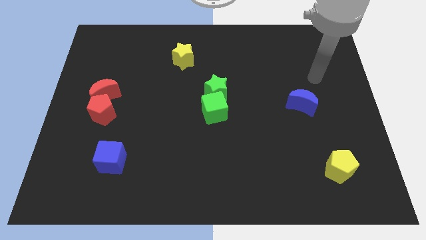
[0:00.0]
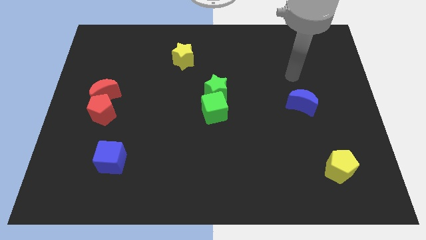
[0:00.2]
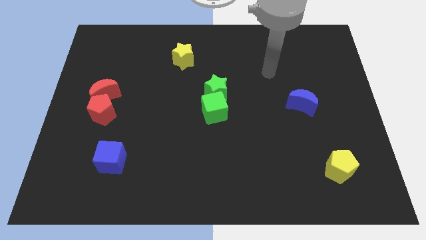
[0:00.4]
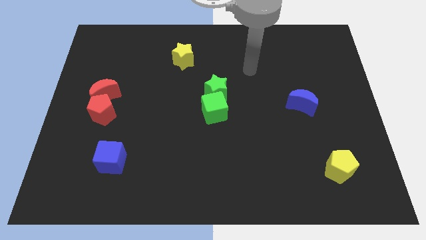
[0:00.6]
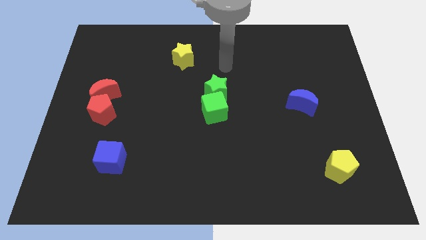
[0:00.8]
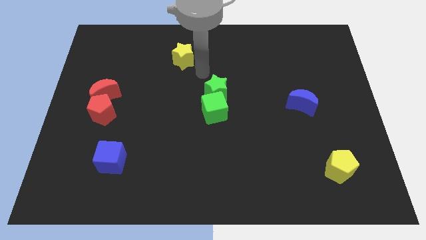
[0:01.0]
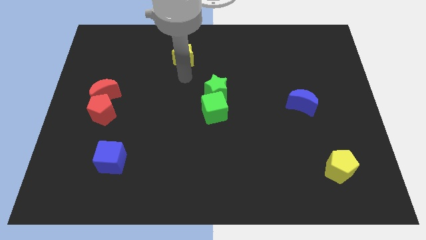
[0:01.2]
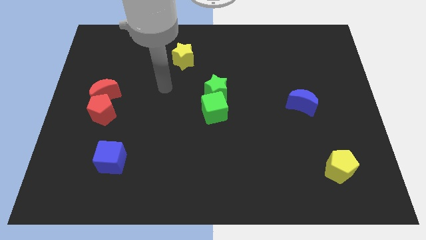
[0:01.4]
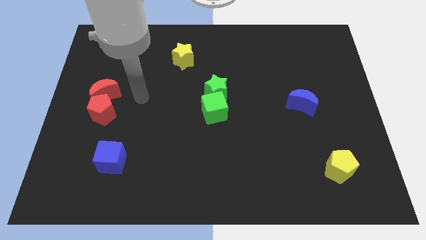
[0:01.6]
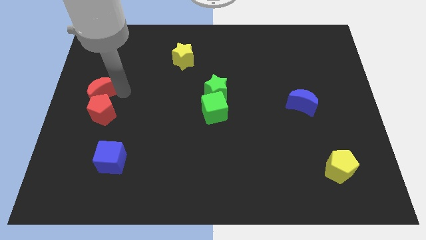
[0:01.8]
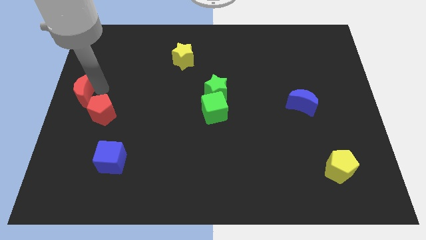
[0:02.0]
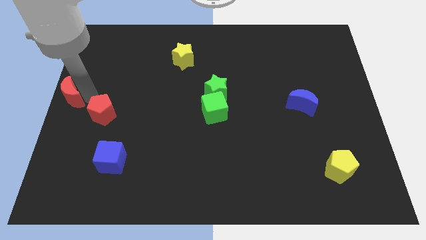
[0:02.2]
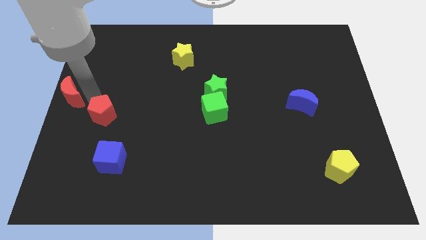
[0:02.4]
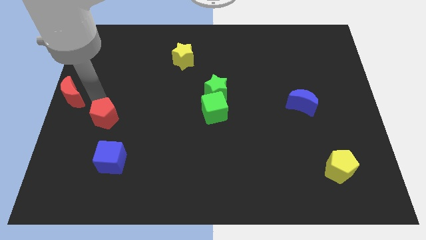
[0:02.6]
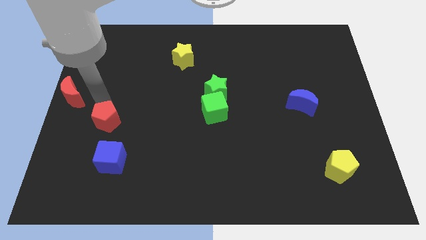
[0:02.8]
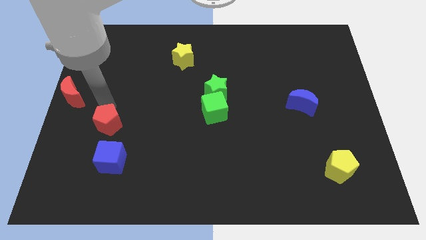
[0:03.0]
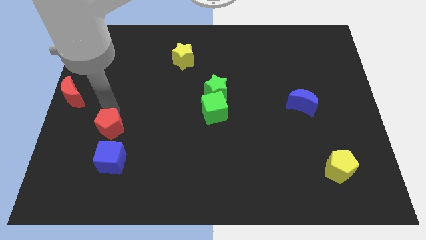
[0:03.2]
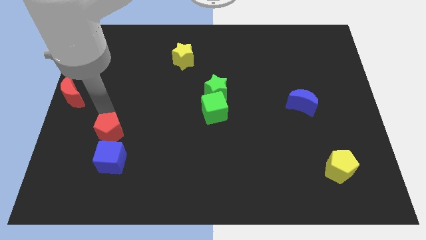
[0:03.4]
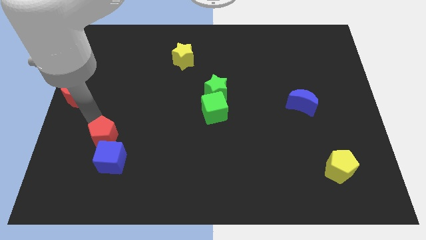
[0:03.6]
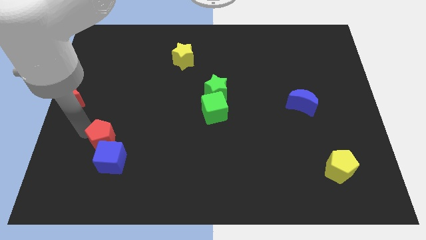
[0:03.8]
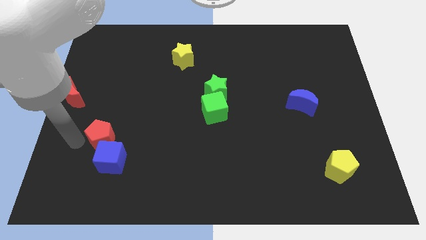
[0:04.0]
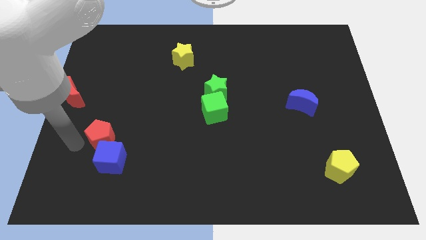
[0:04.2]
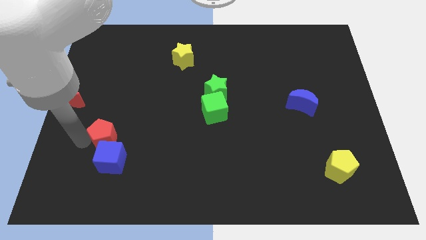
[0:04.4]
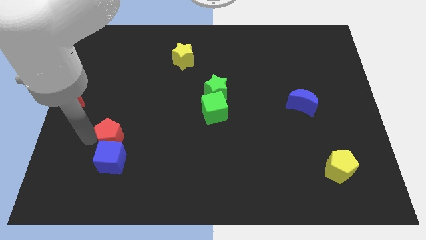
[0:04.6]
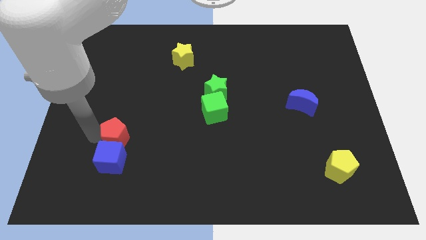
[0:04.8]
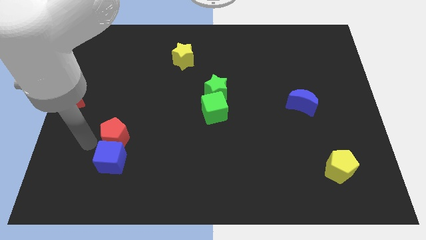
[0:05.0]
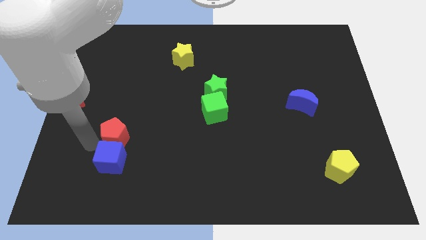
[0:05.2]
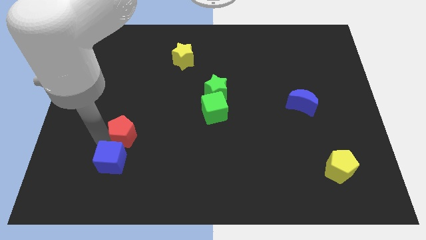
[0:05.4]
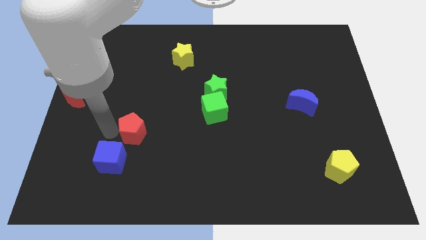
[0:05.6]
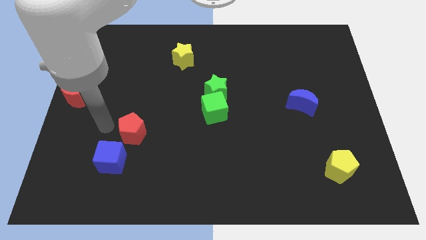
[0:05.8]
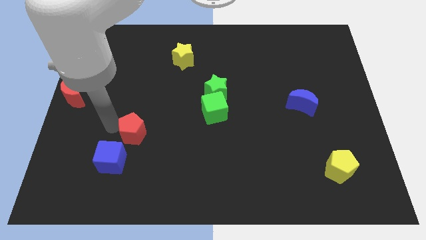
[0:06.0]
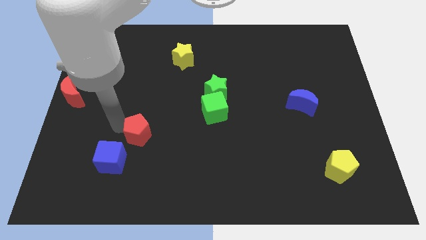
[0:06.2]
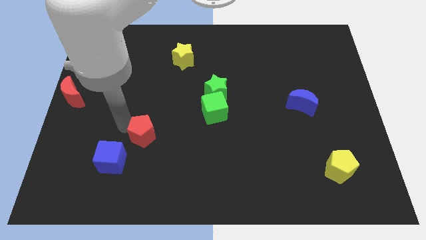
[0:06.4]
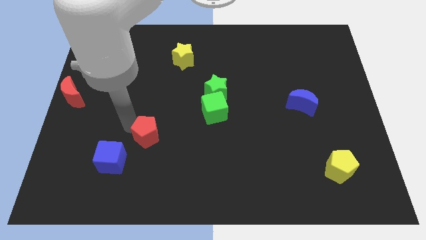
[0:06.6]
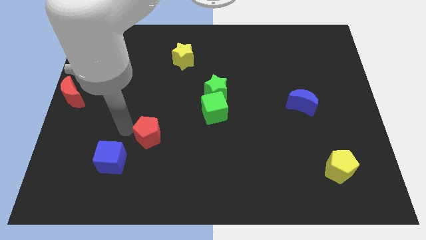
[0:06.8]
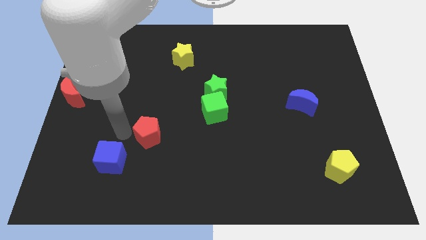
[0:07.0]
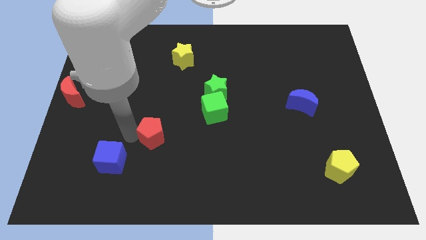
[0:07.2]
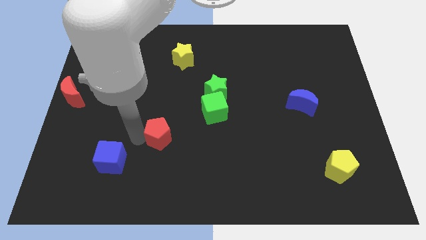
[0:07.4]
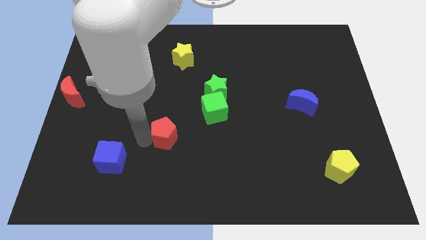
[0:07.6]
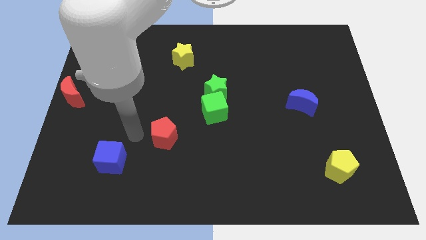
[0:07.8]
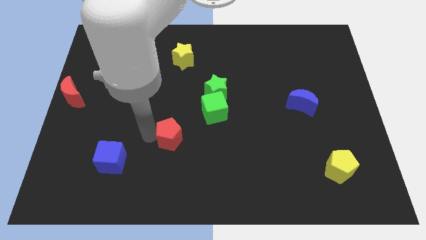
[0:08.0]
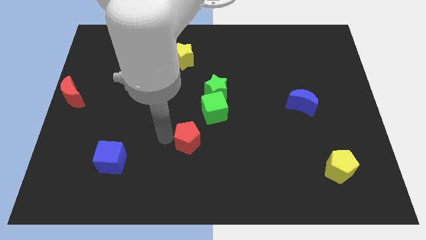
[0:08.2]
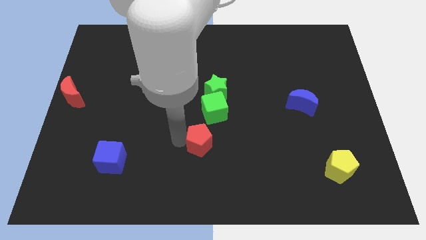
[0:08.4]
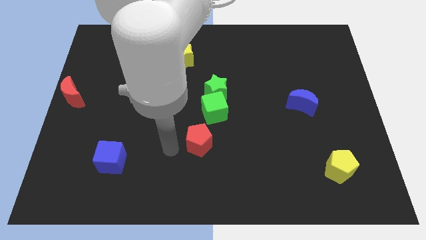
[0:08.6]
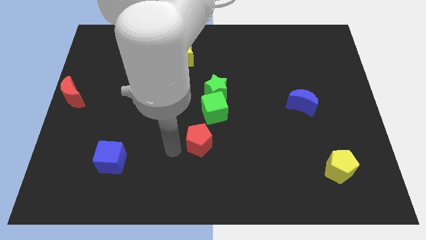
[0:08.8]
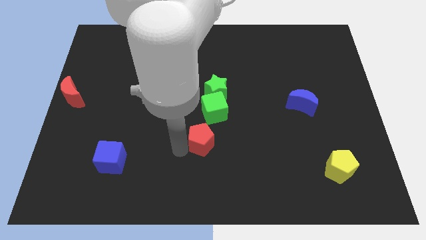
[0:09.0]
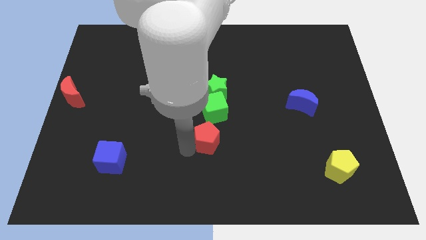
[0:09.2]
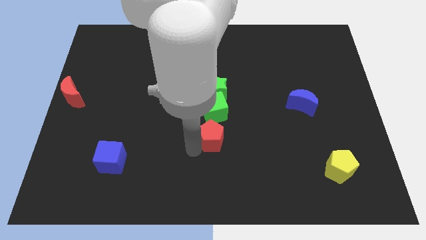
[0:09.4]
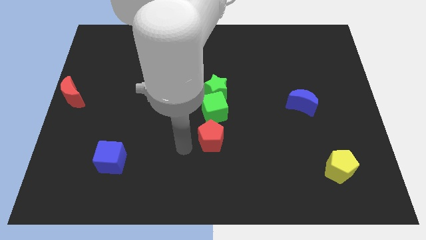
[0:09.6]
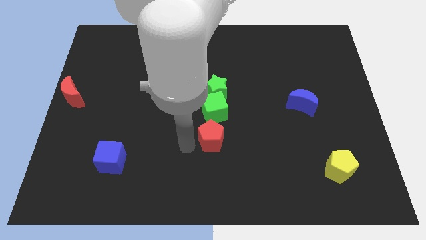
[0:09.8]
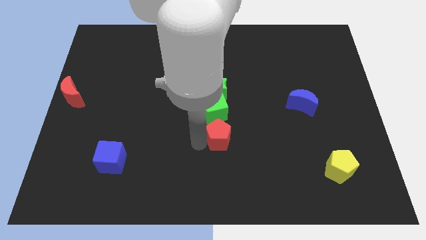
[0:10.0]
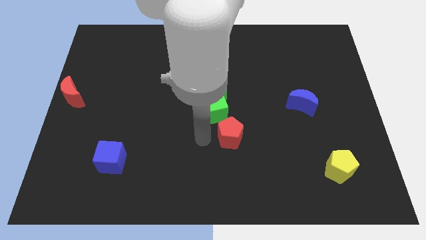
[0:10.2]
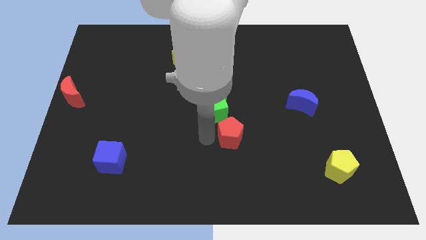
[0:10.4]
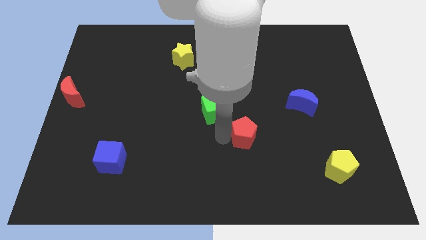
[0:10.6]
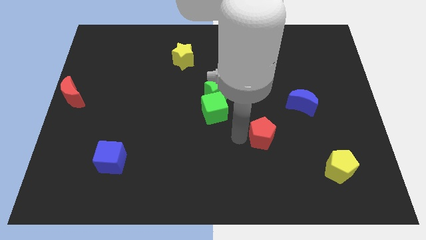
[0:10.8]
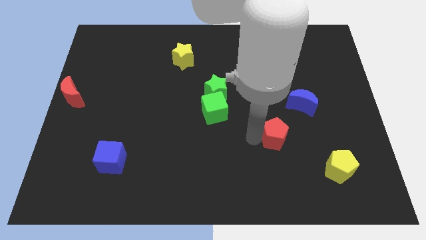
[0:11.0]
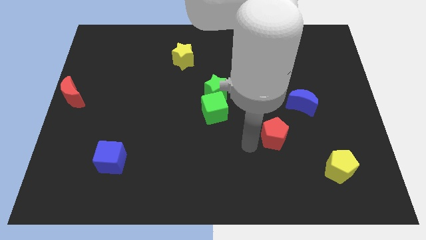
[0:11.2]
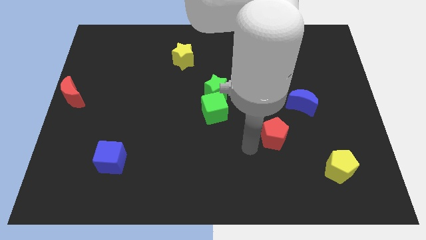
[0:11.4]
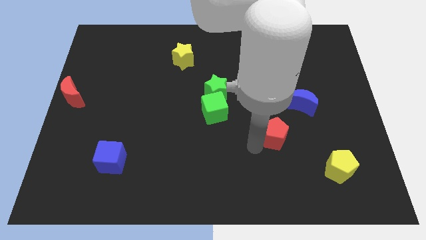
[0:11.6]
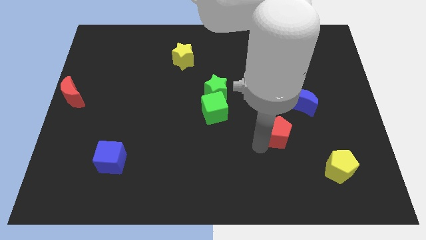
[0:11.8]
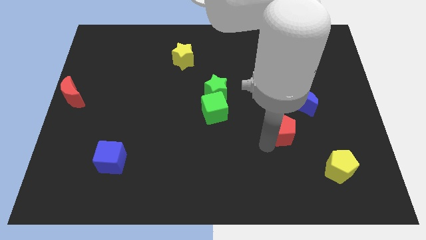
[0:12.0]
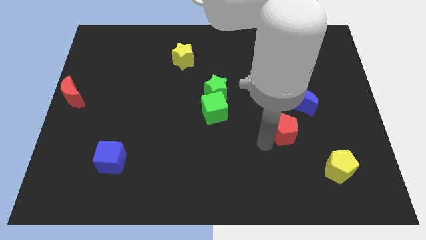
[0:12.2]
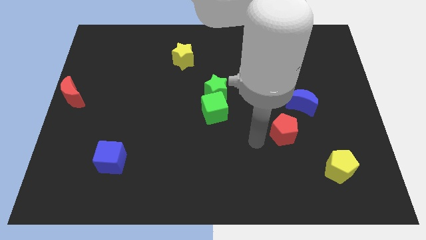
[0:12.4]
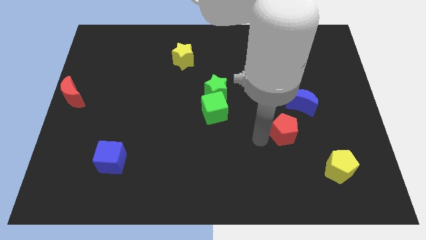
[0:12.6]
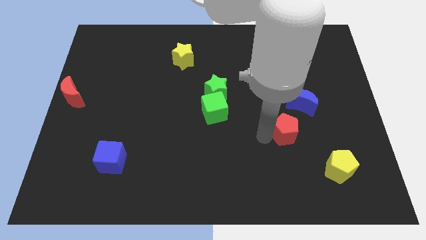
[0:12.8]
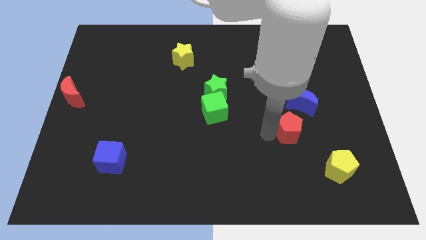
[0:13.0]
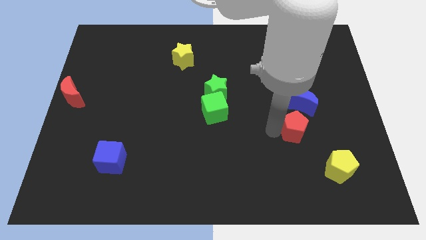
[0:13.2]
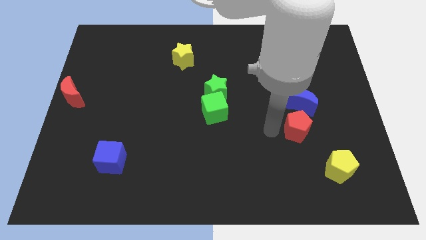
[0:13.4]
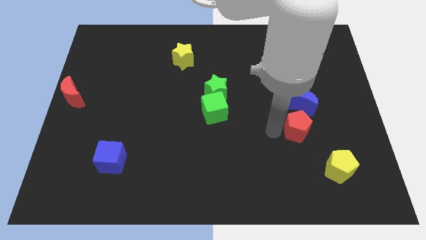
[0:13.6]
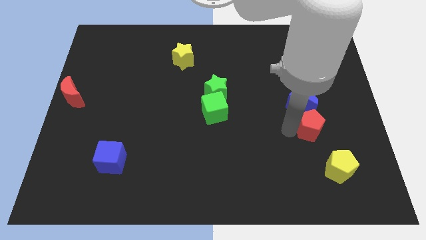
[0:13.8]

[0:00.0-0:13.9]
put the red pentagon to the top side of the yellow pentagon

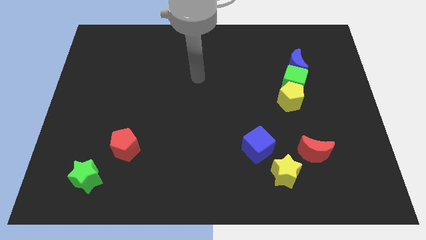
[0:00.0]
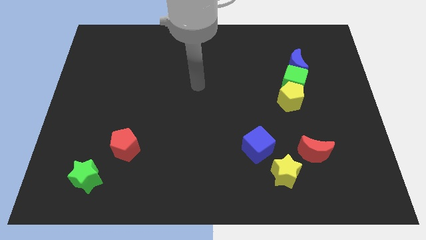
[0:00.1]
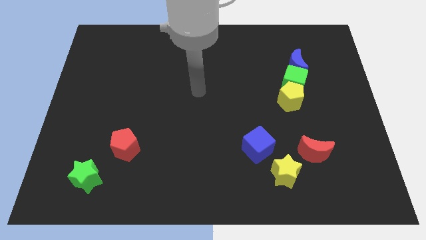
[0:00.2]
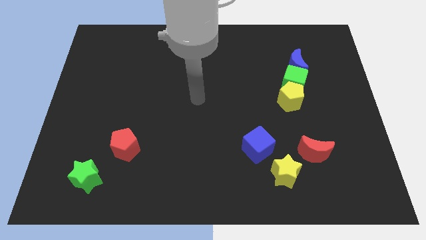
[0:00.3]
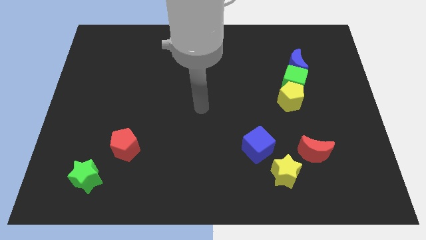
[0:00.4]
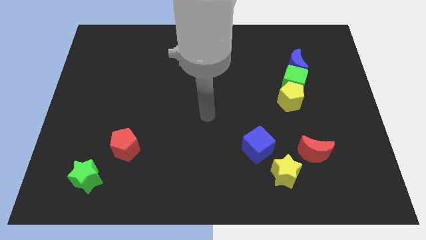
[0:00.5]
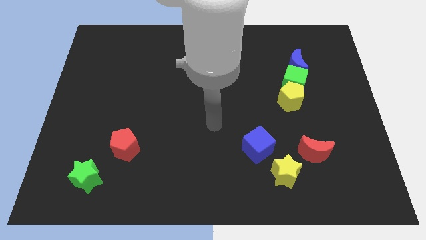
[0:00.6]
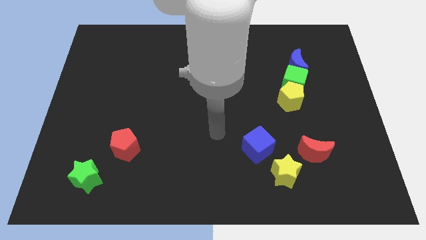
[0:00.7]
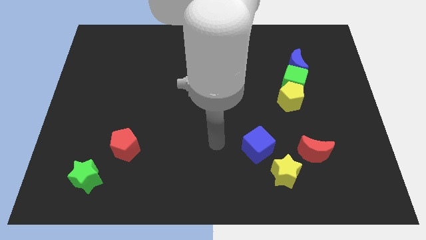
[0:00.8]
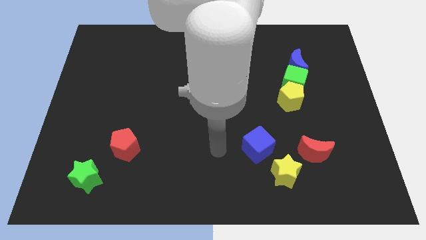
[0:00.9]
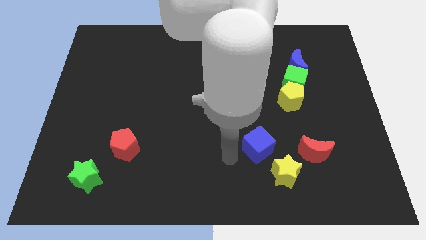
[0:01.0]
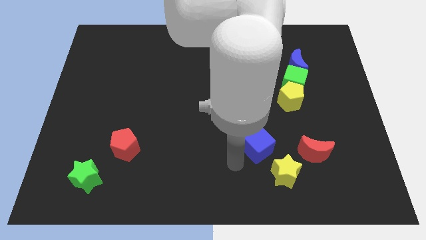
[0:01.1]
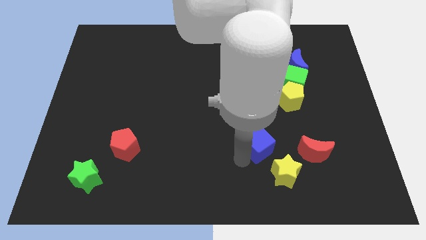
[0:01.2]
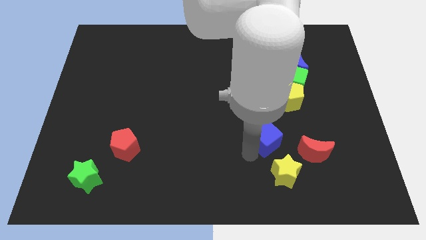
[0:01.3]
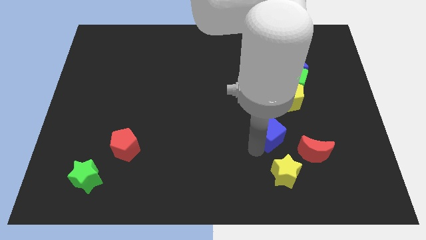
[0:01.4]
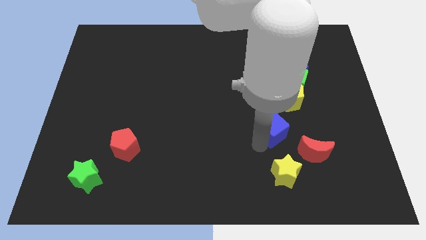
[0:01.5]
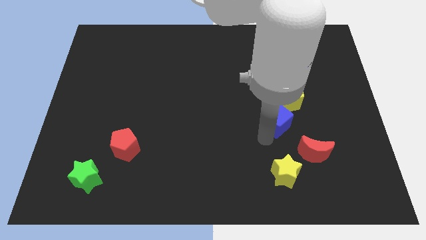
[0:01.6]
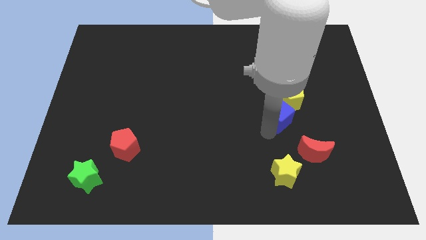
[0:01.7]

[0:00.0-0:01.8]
slide the blue cube below the green cube
